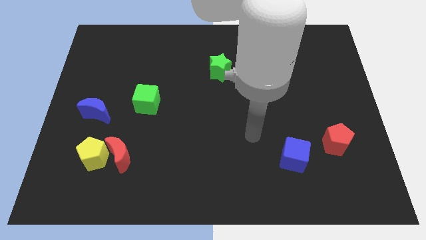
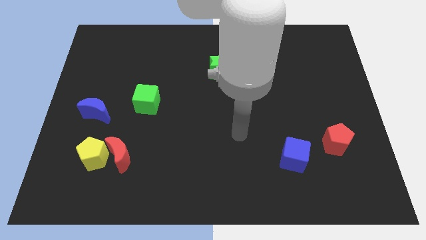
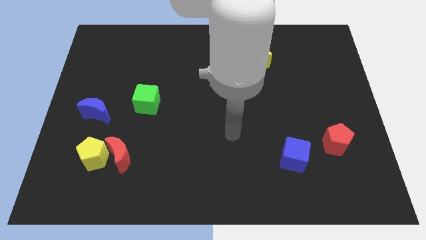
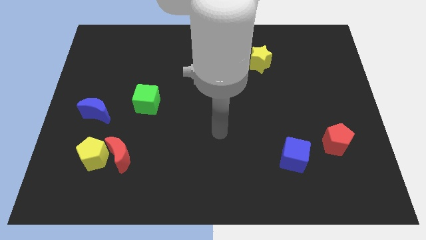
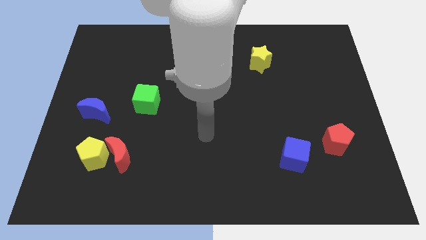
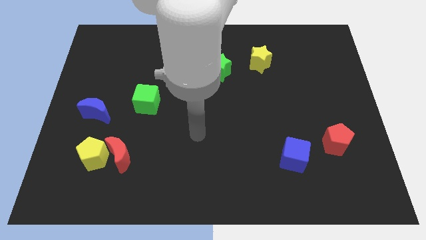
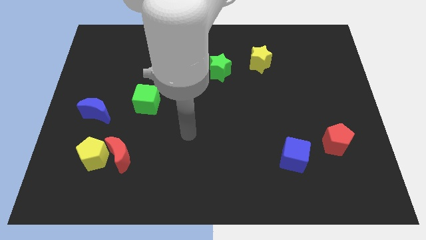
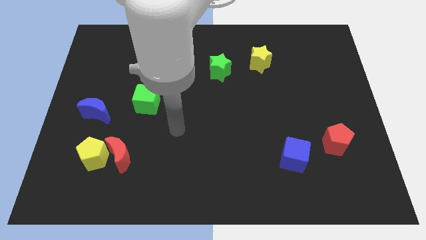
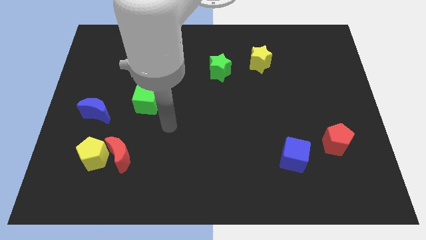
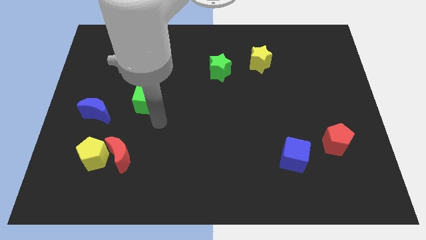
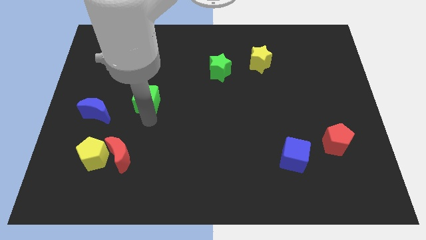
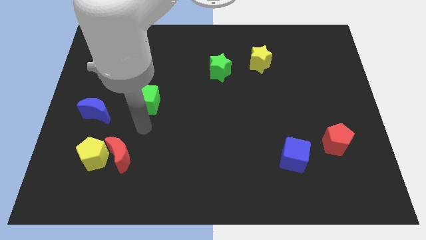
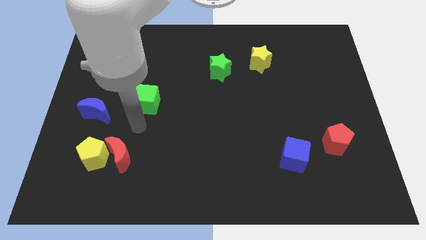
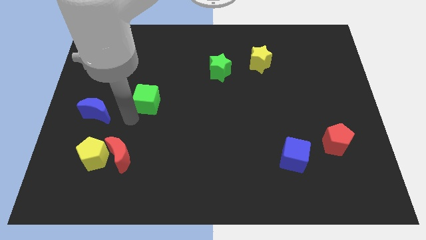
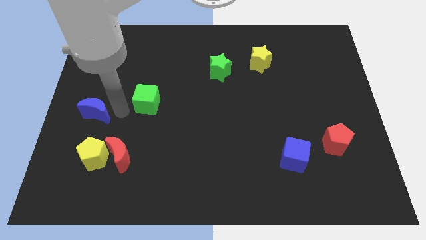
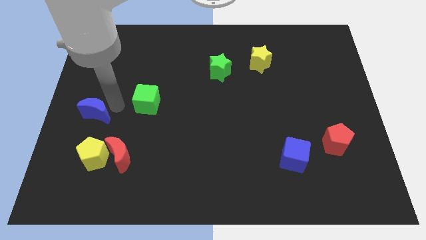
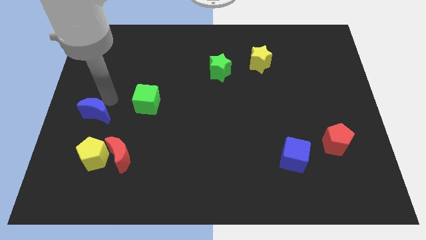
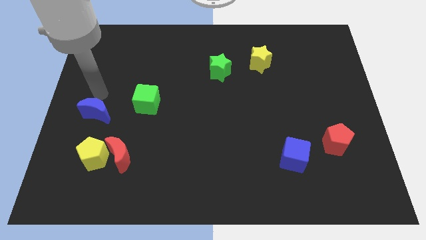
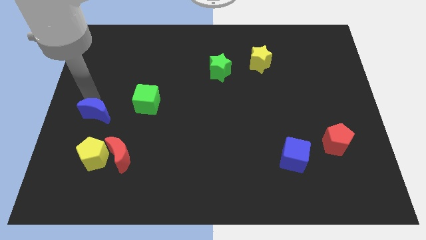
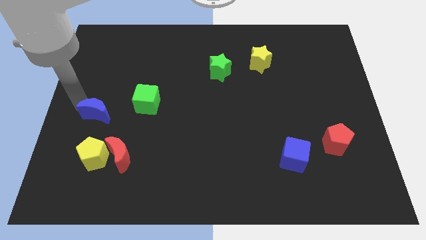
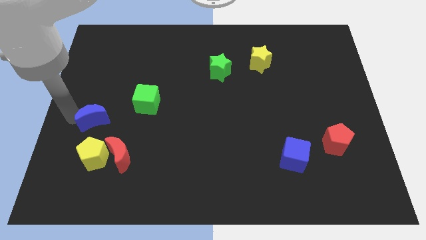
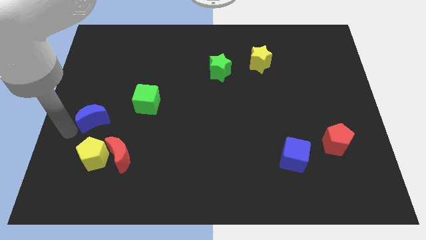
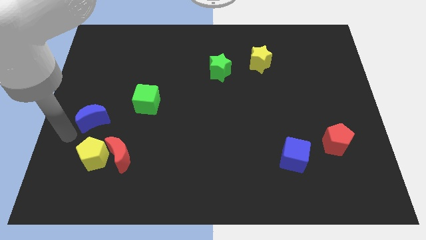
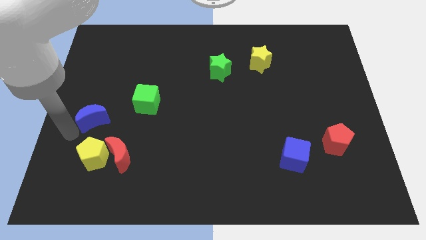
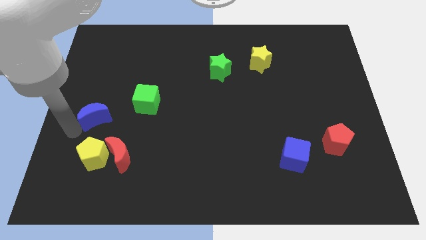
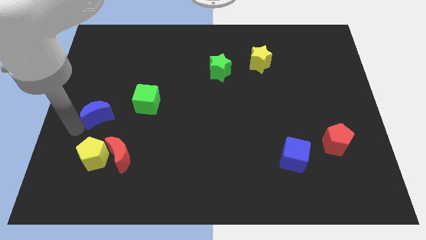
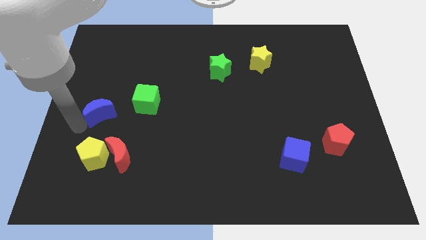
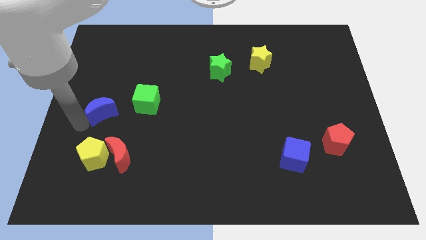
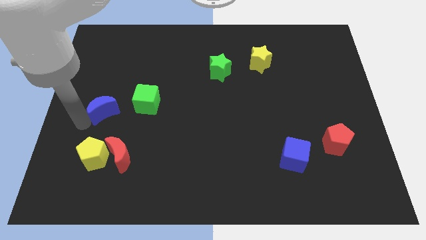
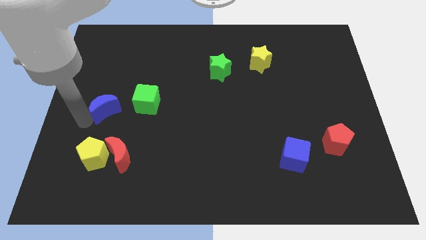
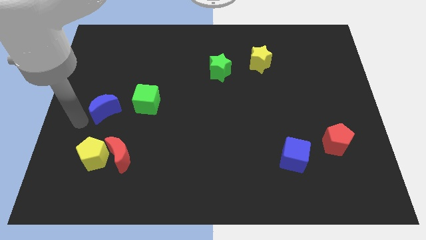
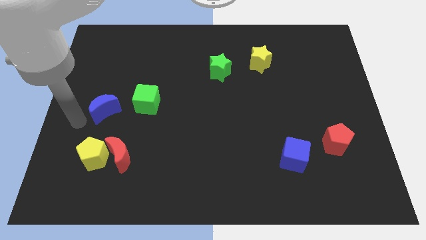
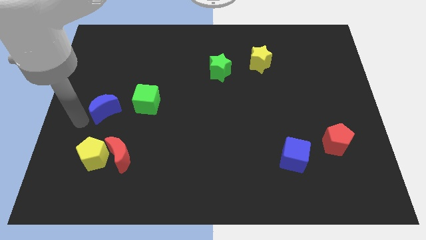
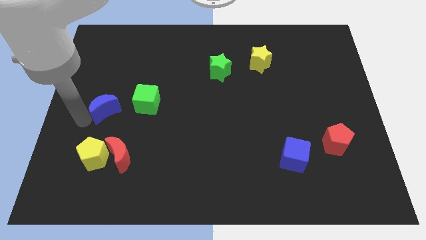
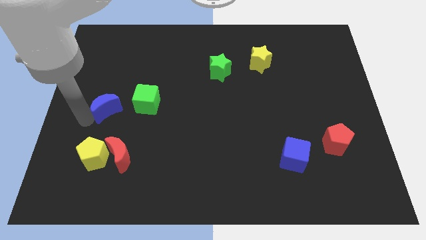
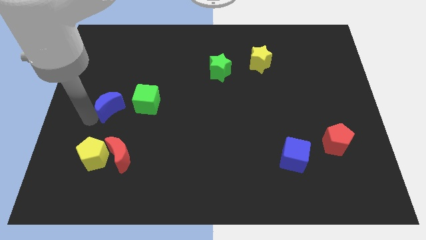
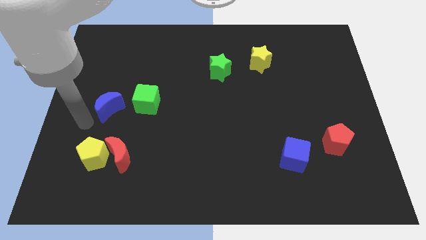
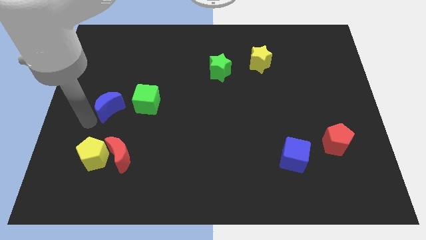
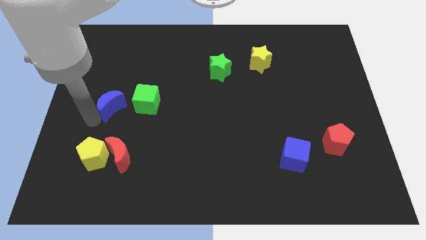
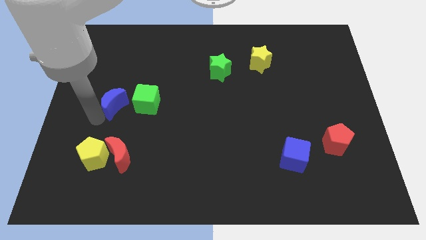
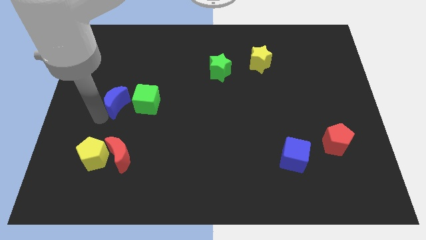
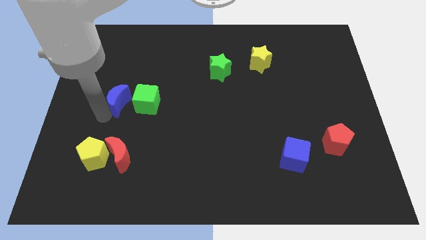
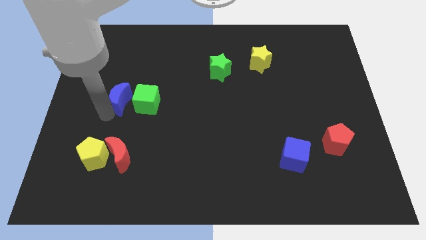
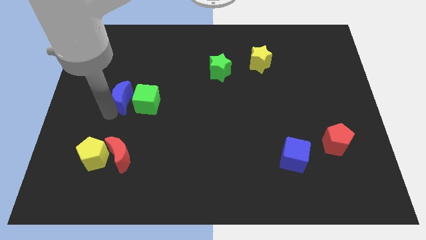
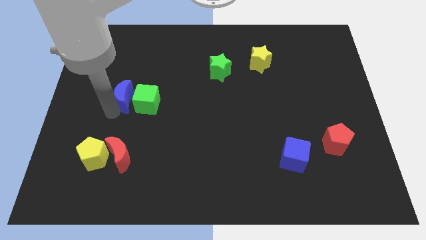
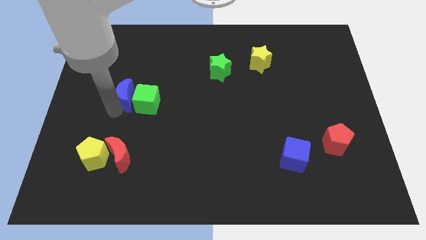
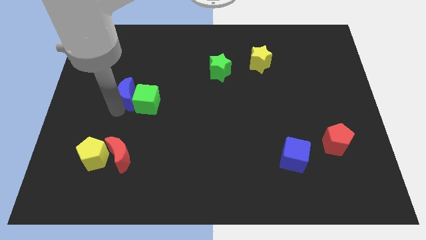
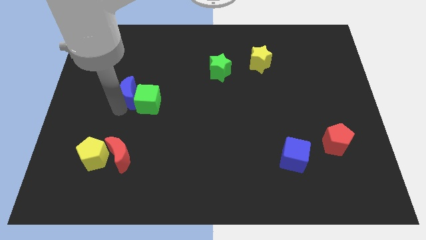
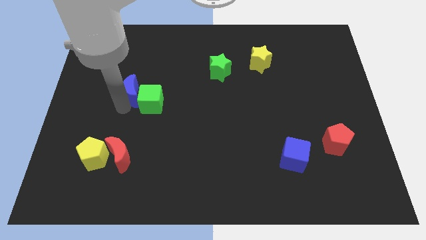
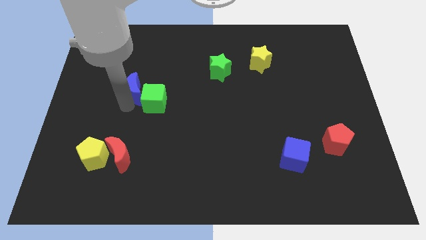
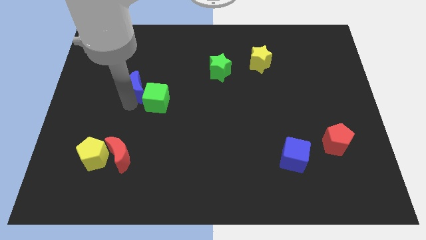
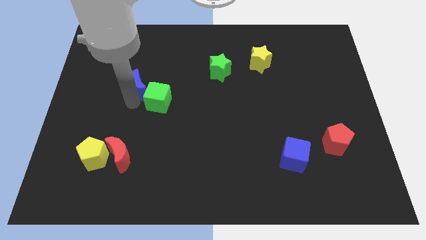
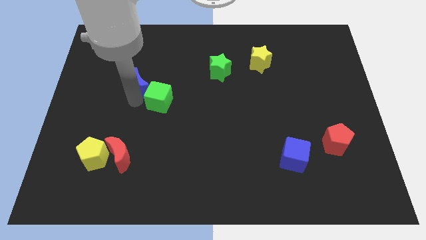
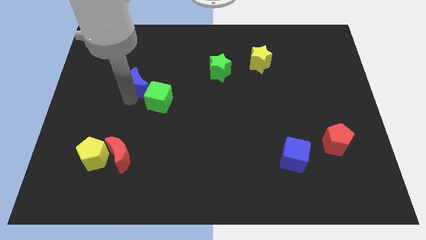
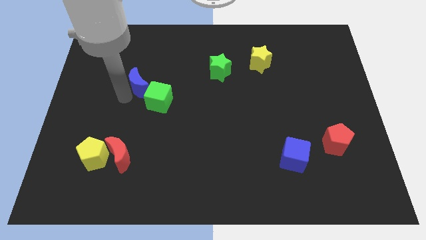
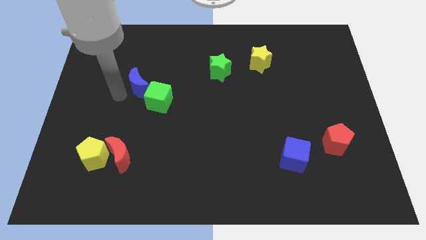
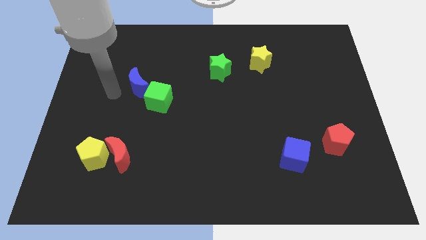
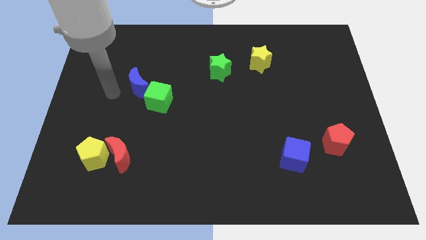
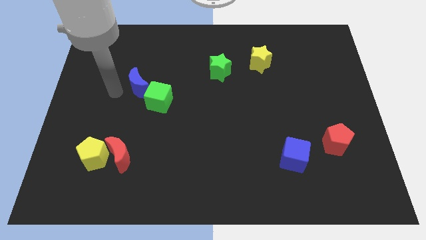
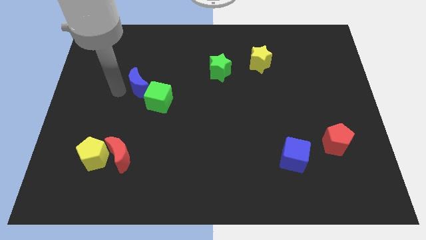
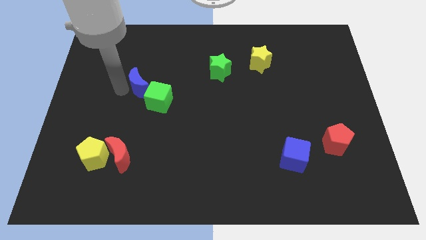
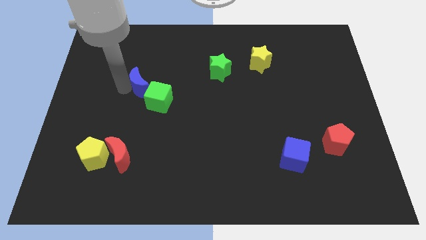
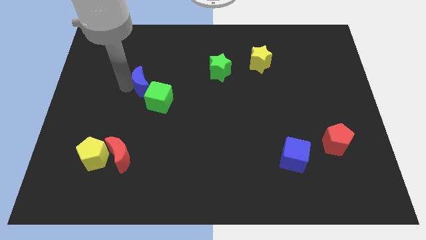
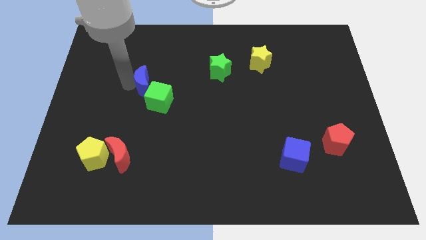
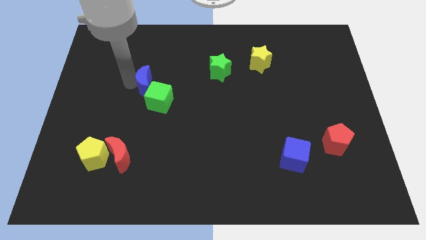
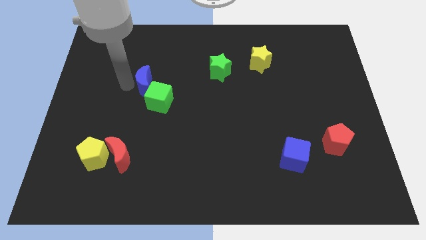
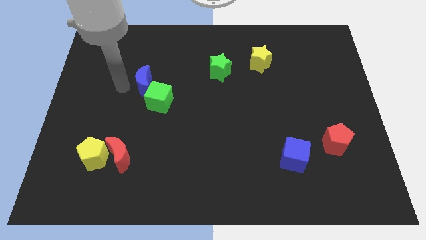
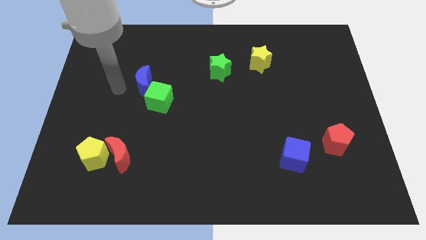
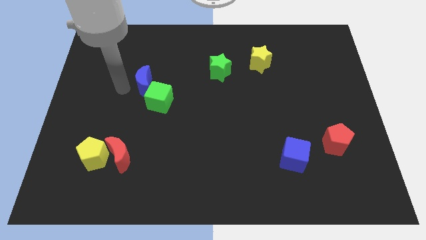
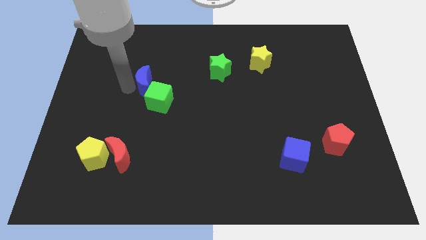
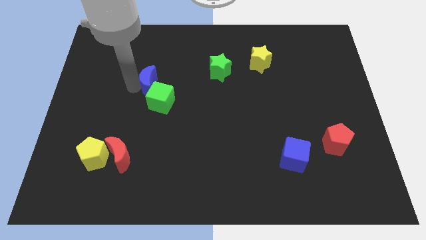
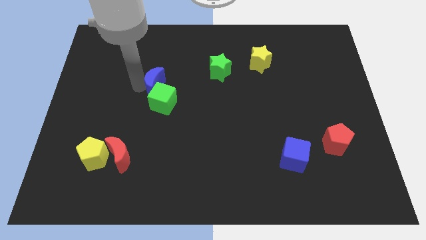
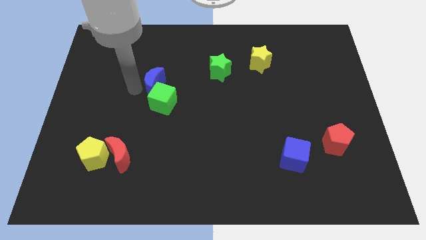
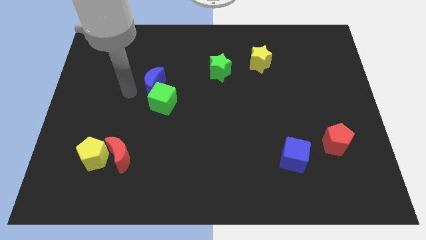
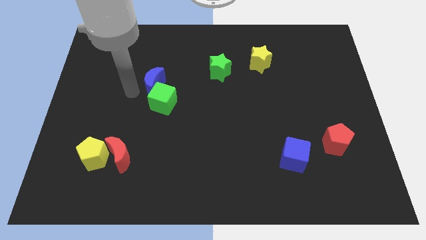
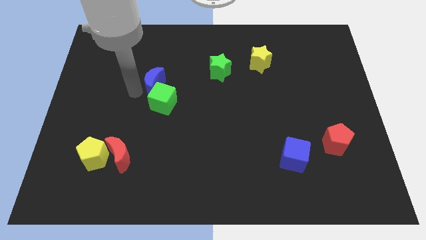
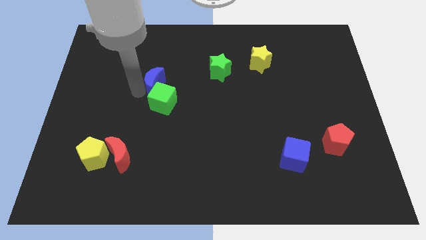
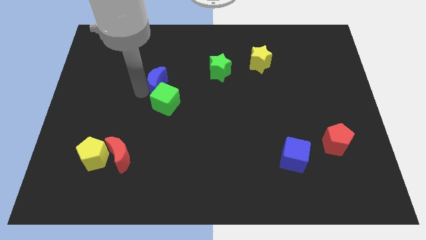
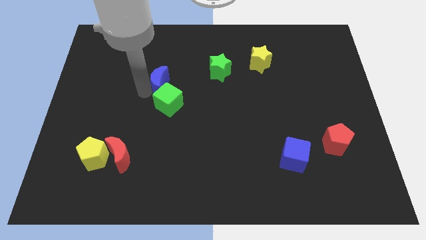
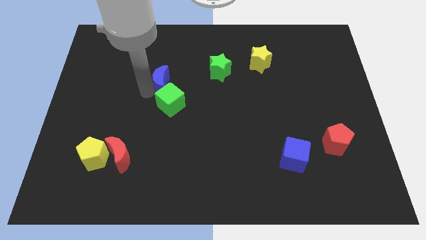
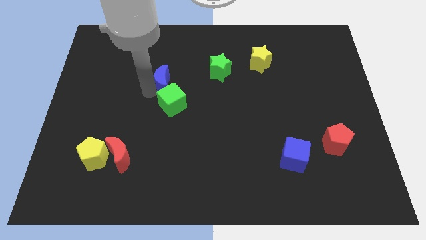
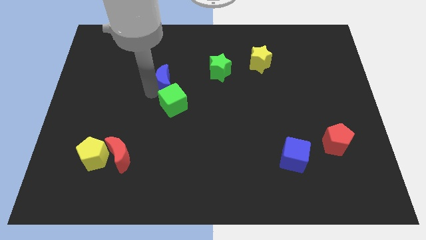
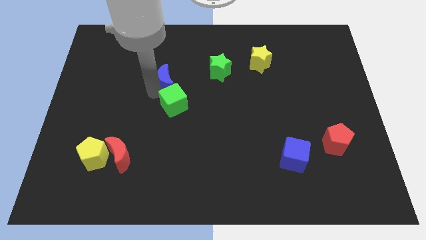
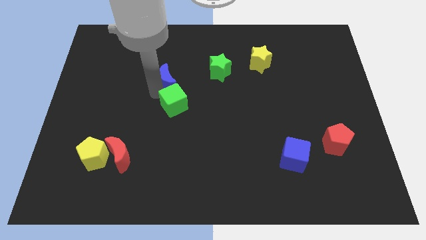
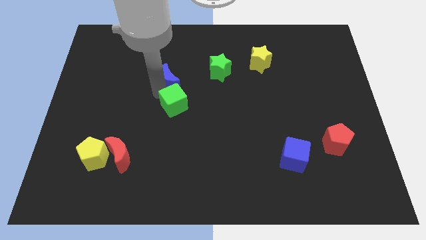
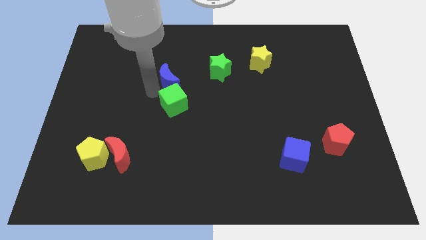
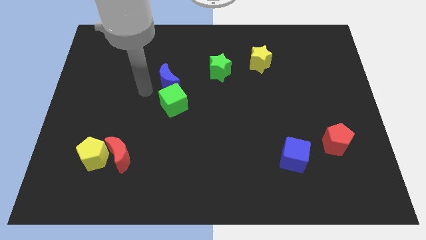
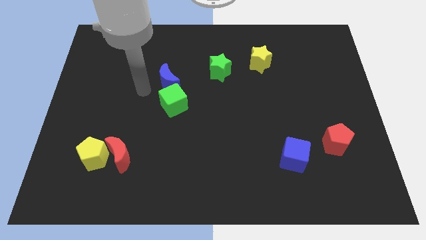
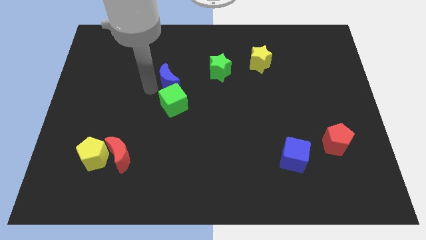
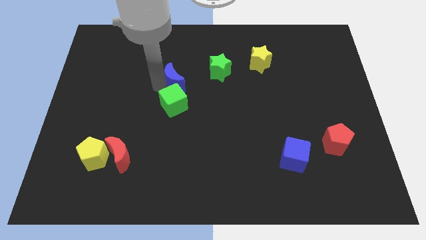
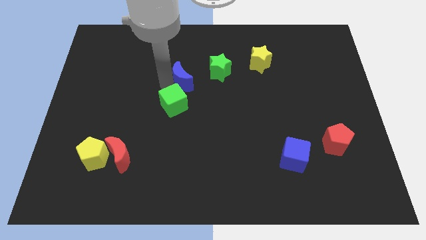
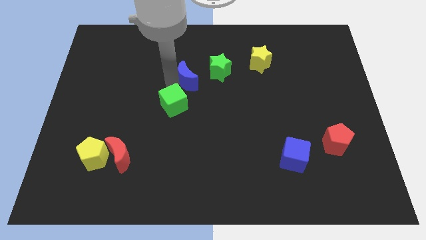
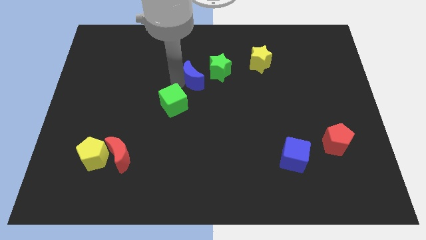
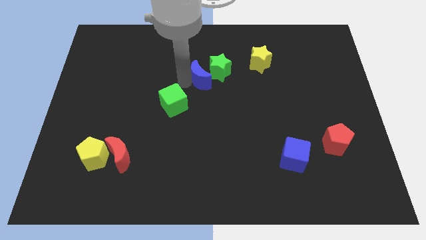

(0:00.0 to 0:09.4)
push the blue moon to the green star
